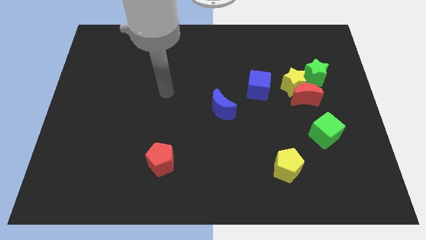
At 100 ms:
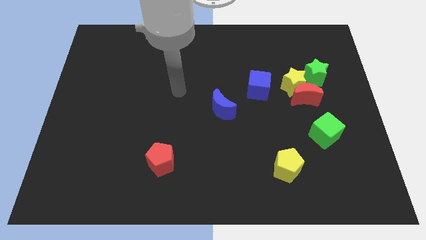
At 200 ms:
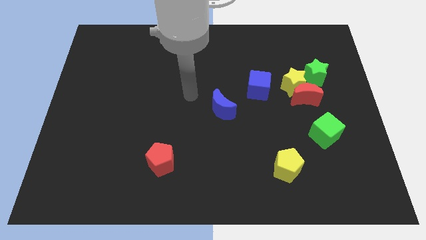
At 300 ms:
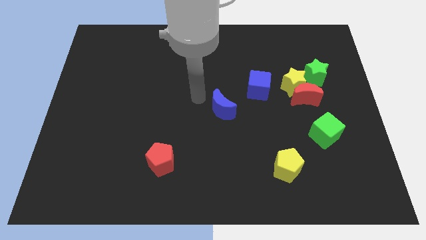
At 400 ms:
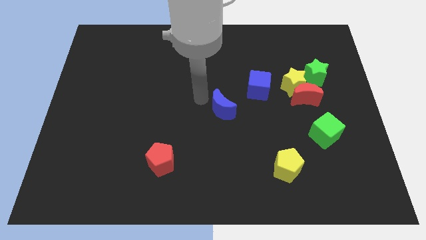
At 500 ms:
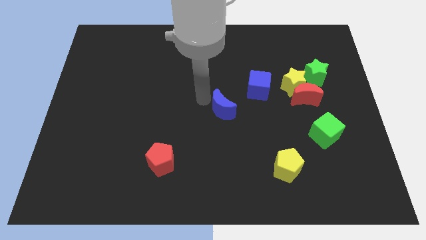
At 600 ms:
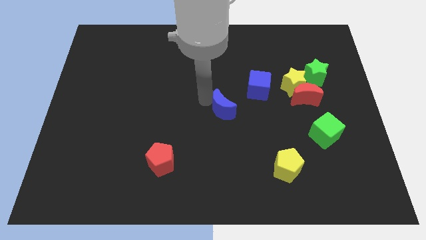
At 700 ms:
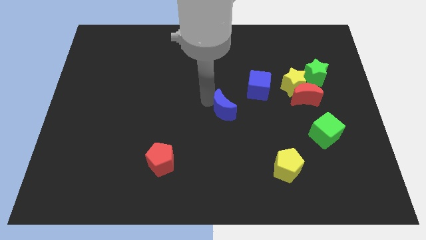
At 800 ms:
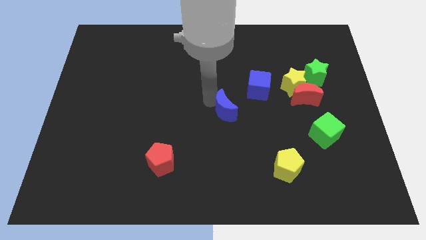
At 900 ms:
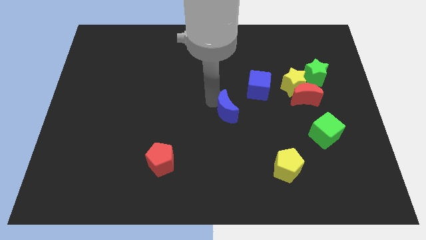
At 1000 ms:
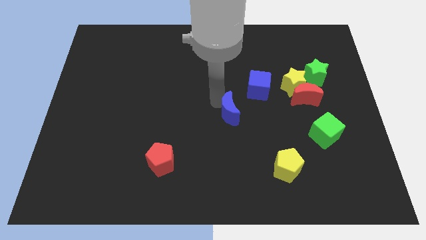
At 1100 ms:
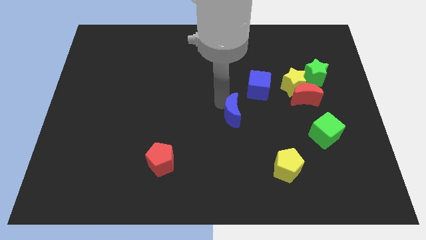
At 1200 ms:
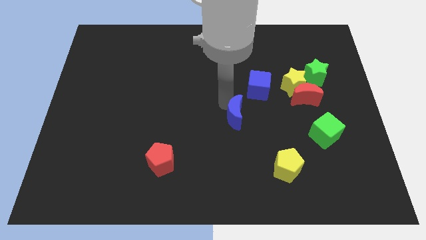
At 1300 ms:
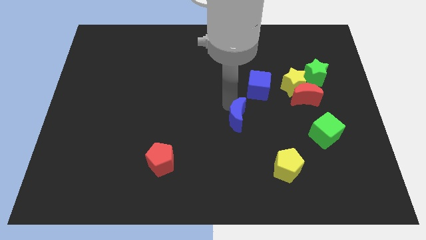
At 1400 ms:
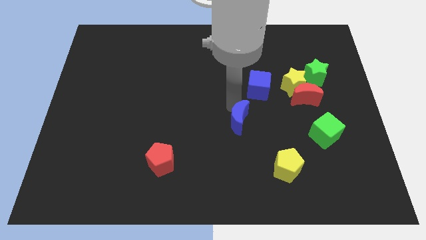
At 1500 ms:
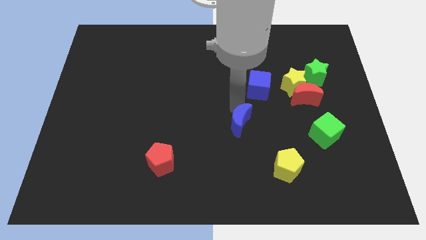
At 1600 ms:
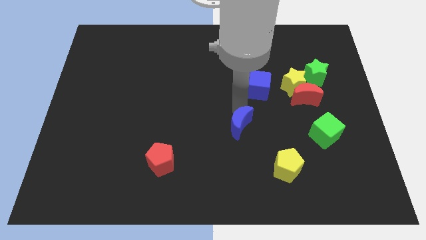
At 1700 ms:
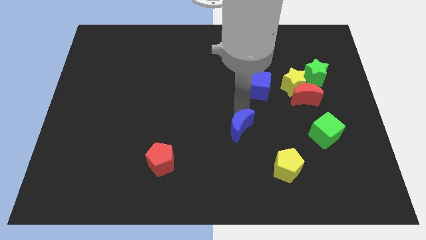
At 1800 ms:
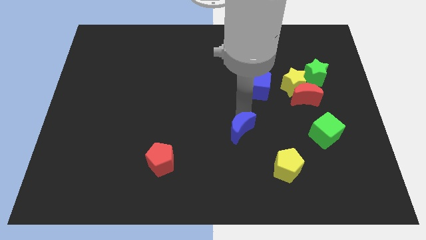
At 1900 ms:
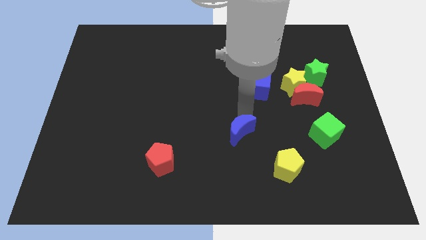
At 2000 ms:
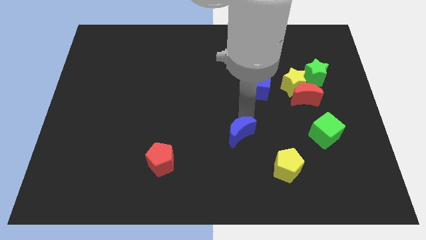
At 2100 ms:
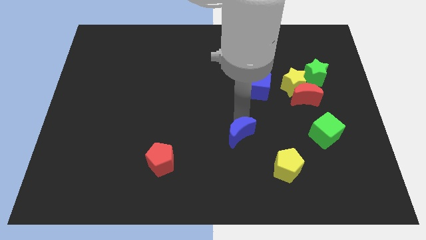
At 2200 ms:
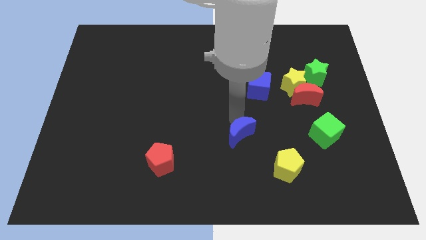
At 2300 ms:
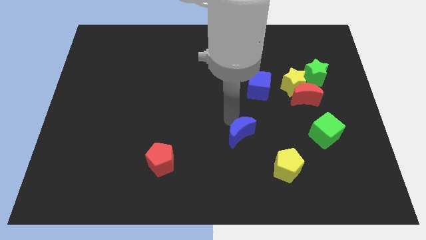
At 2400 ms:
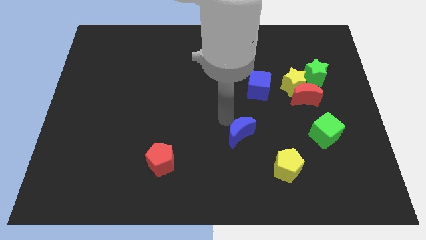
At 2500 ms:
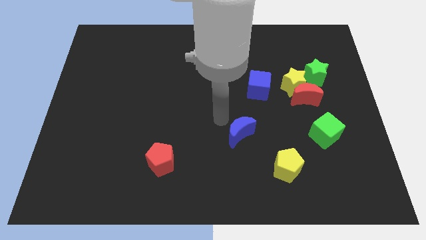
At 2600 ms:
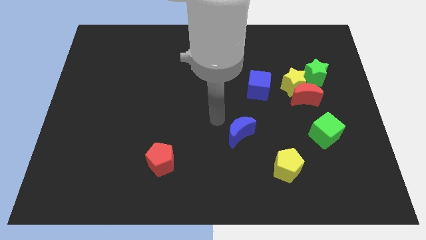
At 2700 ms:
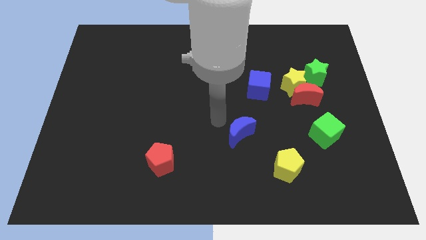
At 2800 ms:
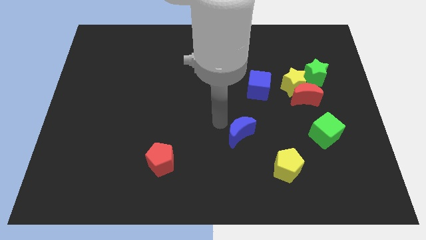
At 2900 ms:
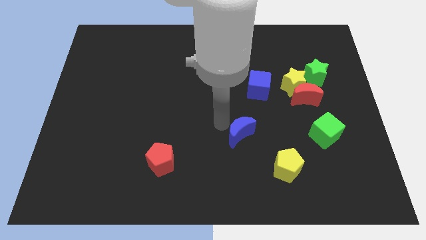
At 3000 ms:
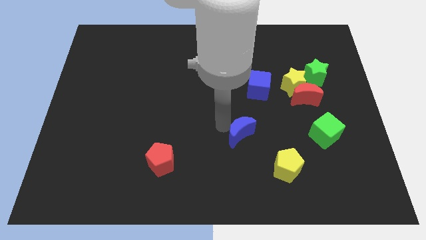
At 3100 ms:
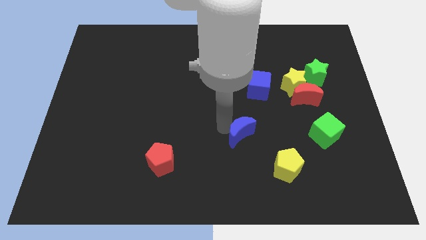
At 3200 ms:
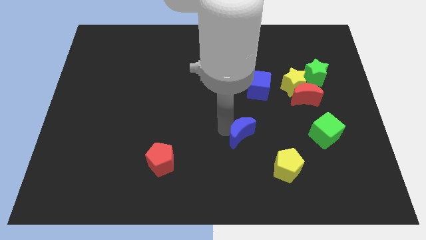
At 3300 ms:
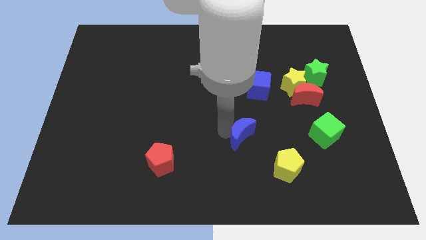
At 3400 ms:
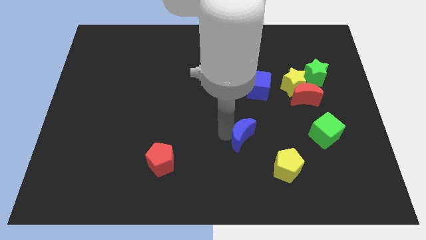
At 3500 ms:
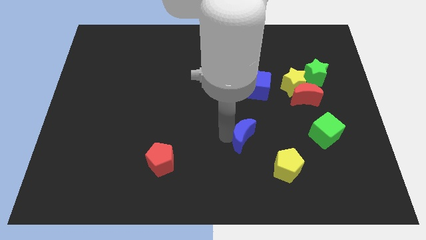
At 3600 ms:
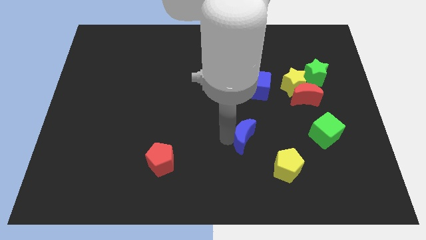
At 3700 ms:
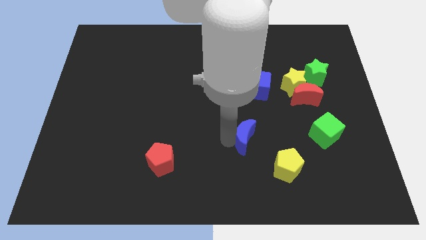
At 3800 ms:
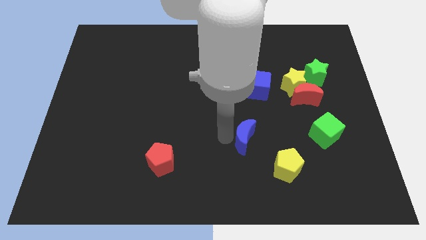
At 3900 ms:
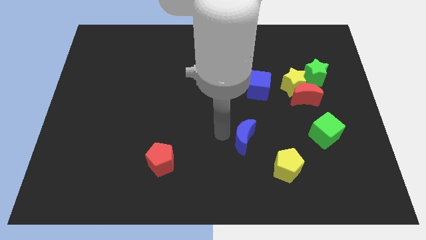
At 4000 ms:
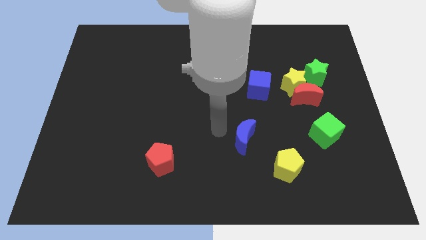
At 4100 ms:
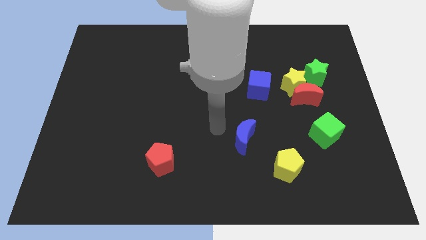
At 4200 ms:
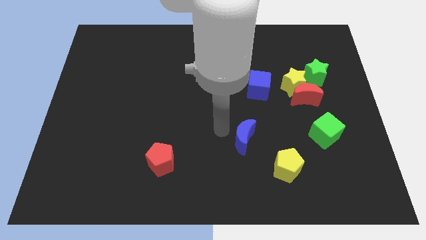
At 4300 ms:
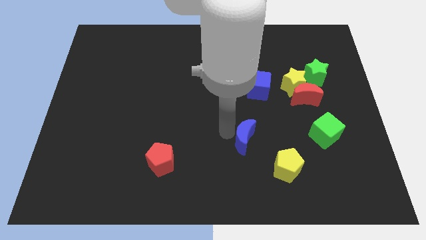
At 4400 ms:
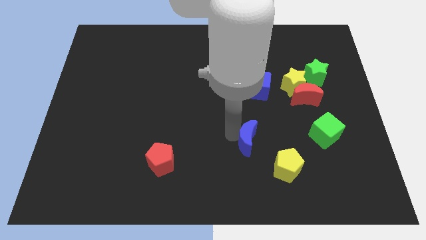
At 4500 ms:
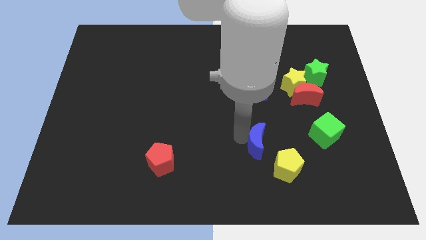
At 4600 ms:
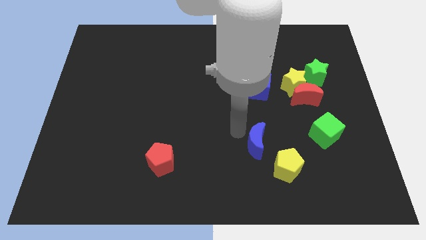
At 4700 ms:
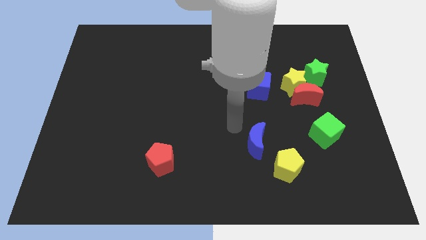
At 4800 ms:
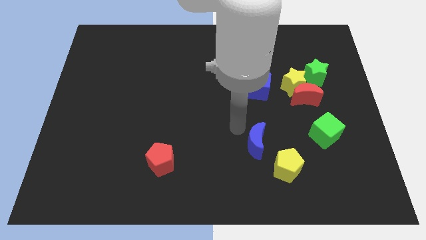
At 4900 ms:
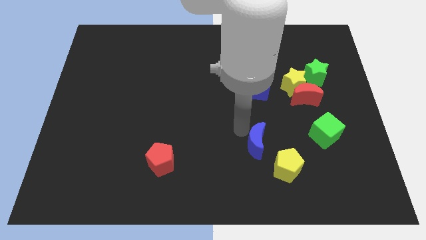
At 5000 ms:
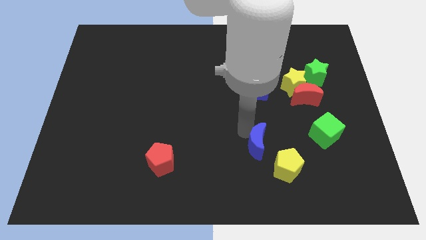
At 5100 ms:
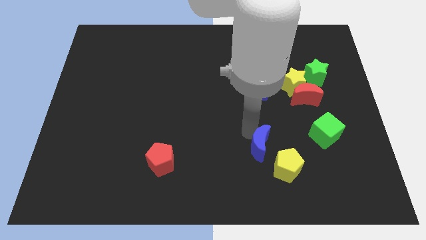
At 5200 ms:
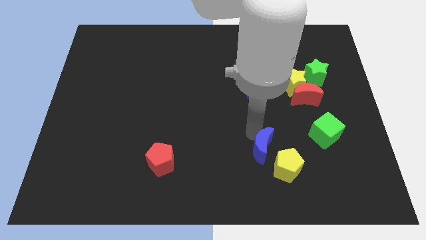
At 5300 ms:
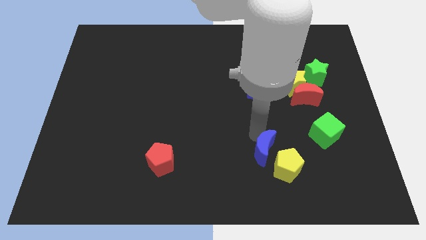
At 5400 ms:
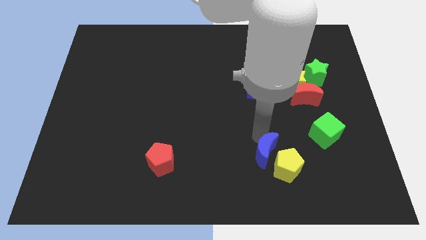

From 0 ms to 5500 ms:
slide the blue moon close to the yellow pentagon

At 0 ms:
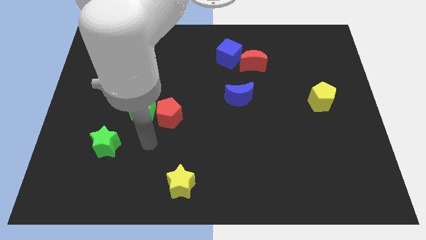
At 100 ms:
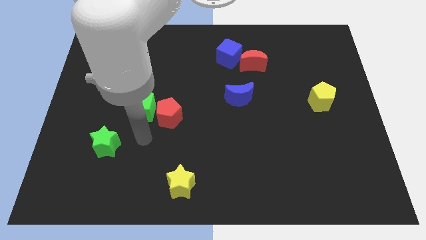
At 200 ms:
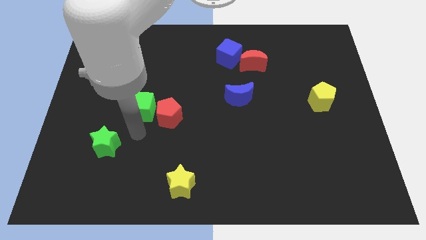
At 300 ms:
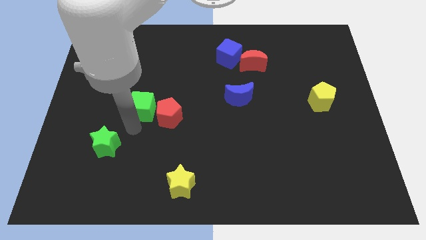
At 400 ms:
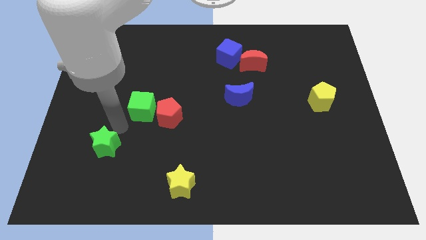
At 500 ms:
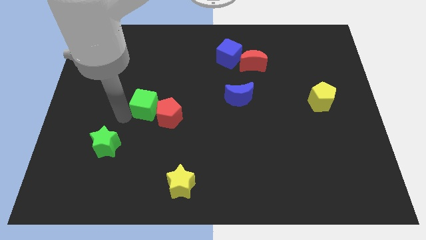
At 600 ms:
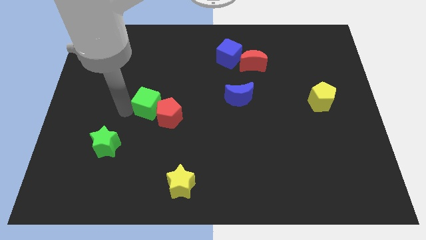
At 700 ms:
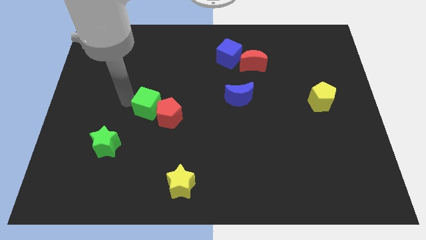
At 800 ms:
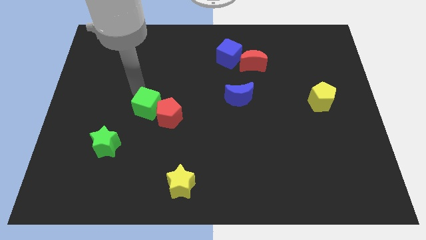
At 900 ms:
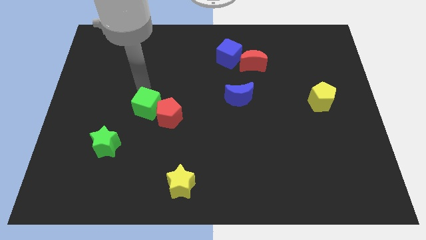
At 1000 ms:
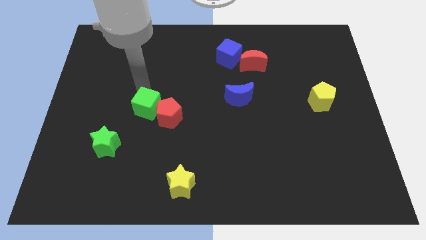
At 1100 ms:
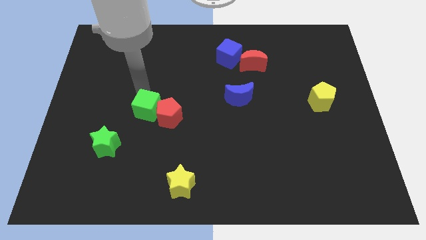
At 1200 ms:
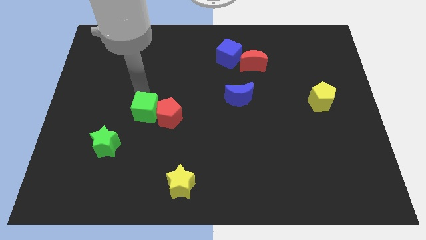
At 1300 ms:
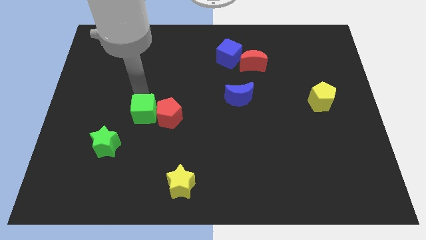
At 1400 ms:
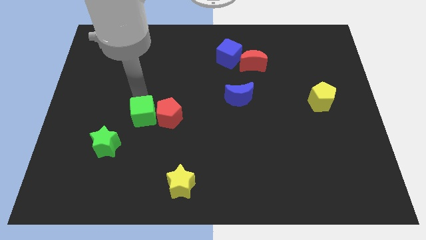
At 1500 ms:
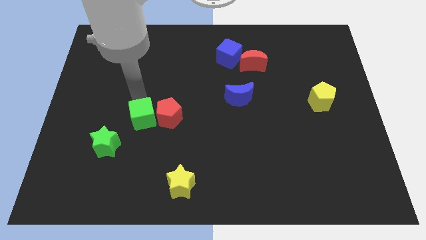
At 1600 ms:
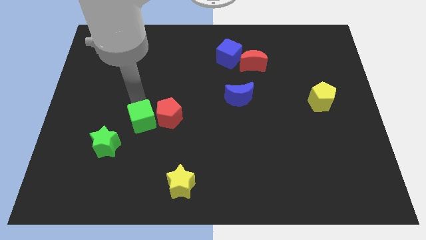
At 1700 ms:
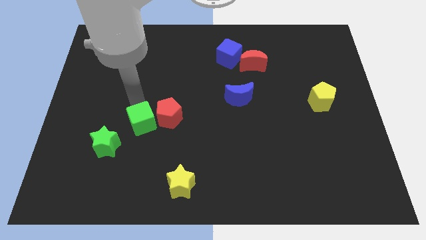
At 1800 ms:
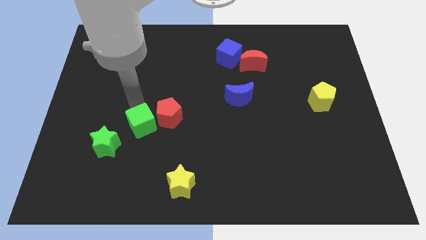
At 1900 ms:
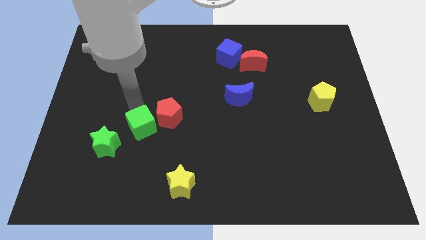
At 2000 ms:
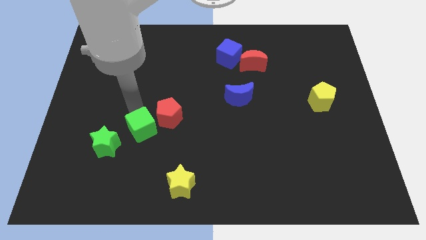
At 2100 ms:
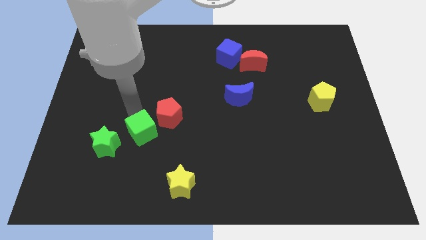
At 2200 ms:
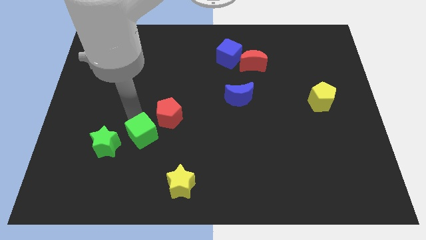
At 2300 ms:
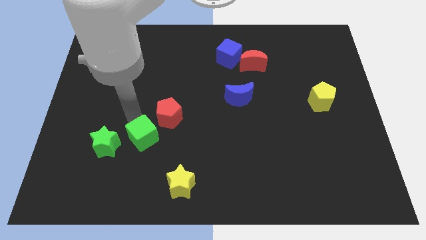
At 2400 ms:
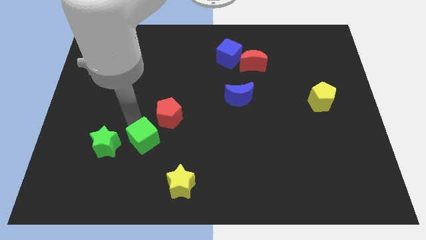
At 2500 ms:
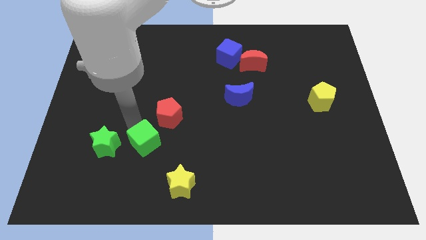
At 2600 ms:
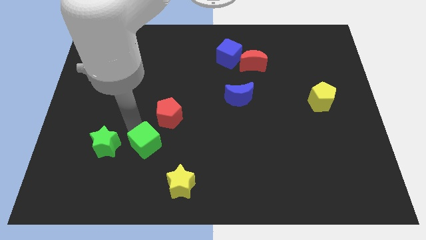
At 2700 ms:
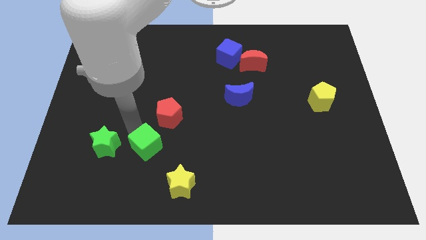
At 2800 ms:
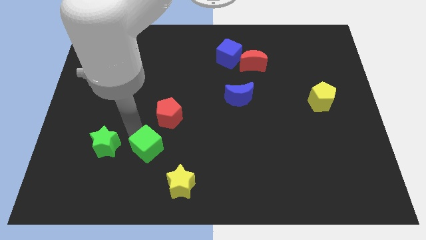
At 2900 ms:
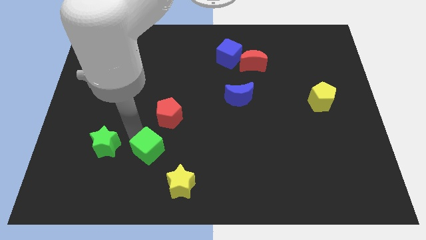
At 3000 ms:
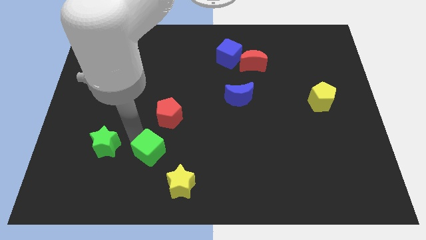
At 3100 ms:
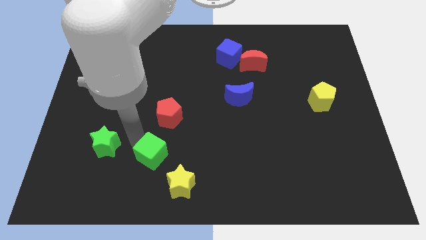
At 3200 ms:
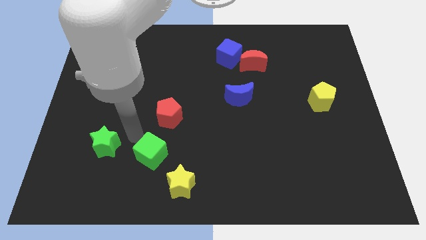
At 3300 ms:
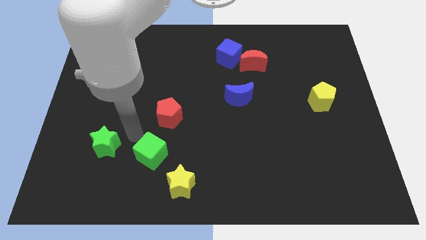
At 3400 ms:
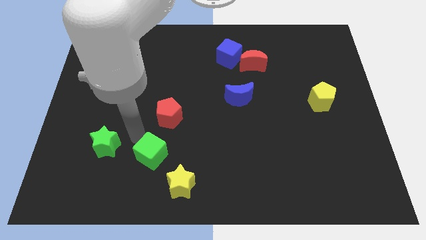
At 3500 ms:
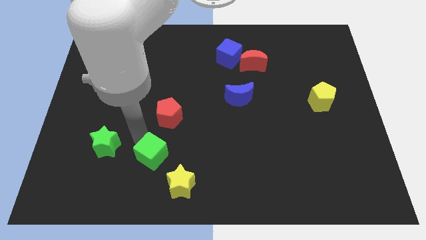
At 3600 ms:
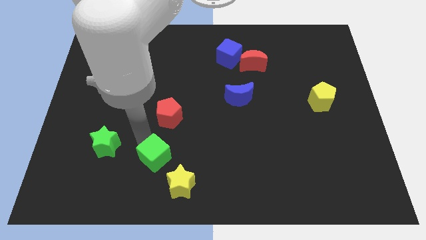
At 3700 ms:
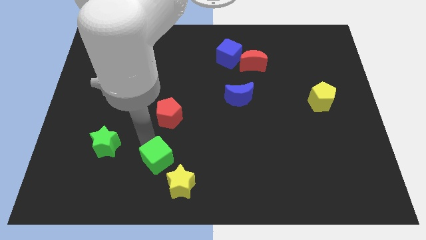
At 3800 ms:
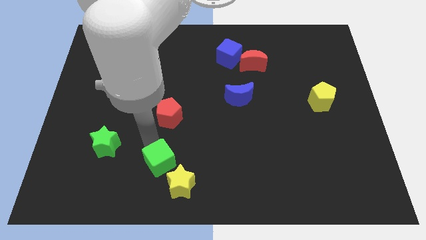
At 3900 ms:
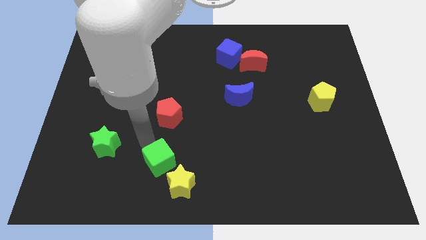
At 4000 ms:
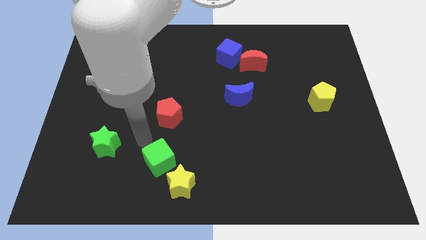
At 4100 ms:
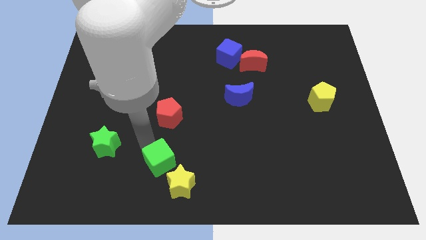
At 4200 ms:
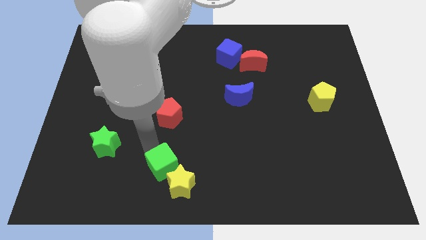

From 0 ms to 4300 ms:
push the green cube next to the yellow star
